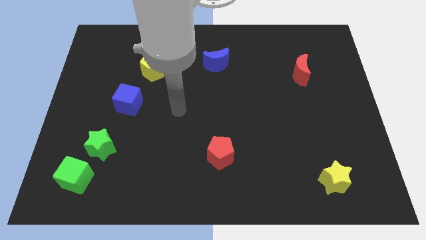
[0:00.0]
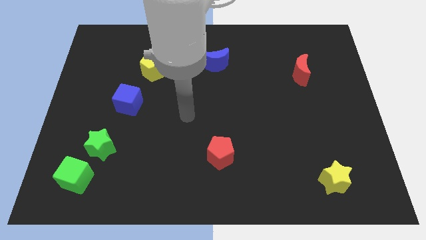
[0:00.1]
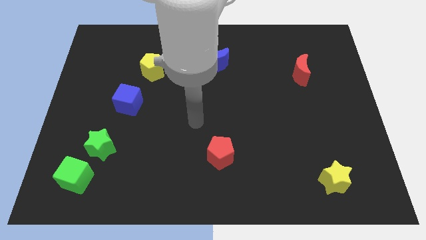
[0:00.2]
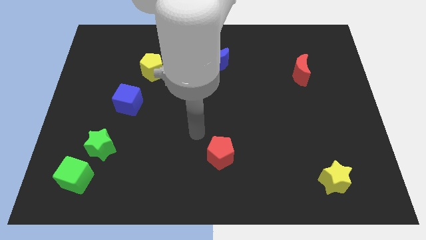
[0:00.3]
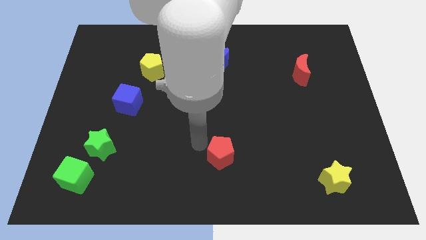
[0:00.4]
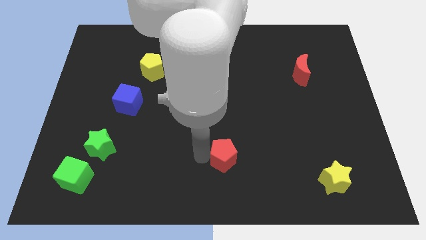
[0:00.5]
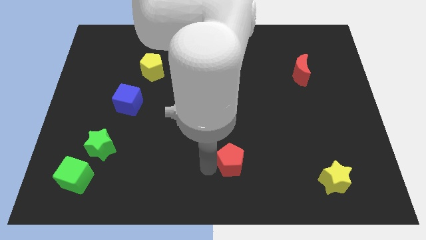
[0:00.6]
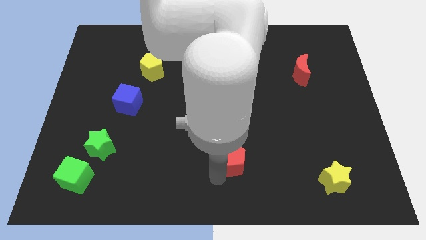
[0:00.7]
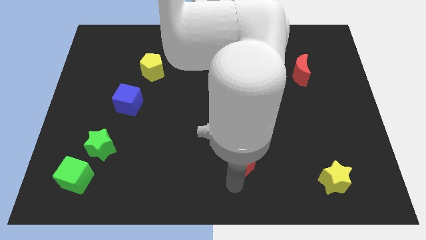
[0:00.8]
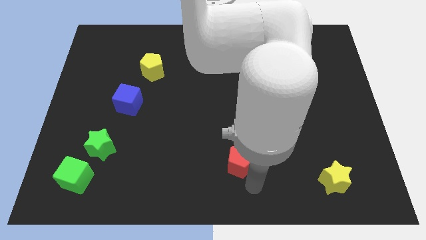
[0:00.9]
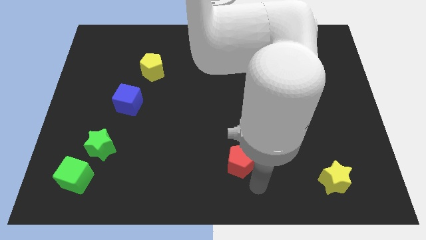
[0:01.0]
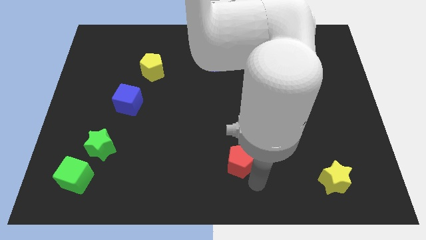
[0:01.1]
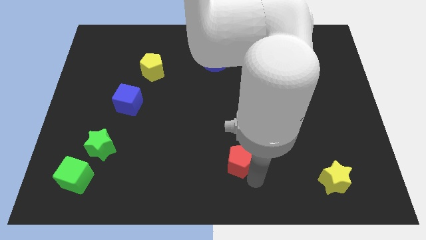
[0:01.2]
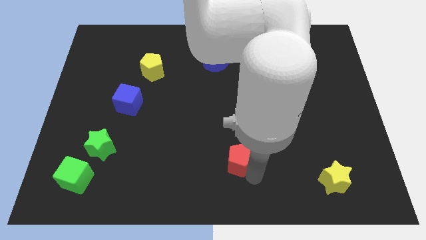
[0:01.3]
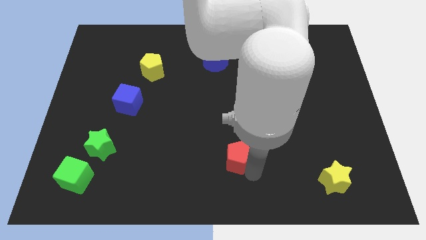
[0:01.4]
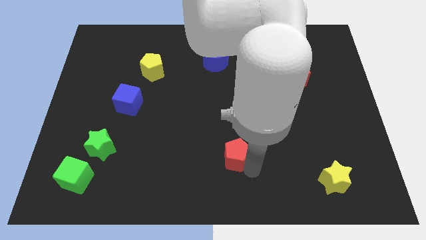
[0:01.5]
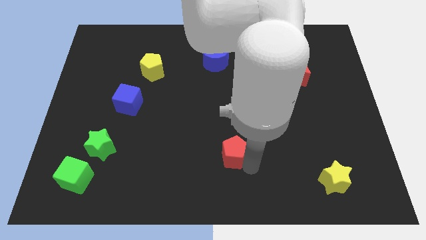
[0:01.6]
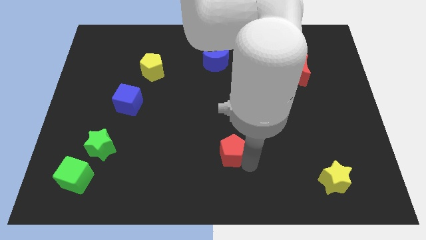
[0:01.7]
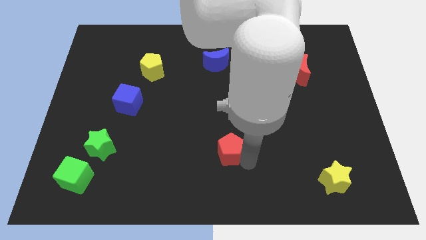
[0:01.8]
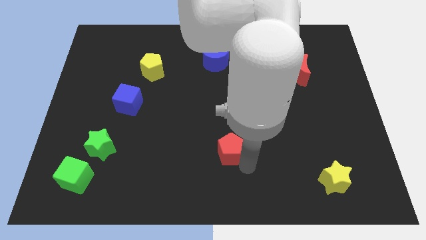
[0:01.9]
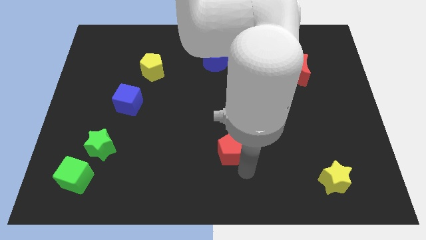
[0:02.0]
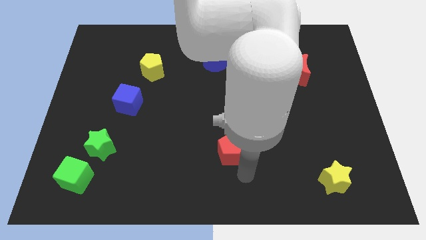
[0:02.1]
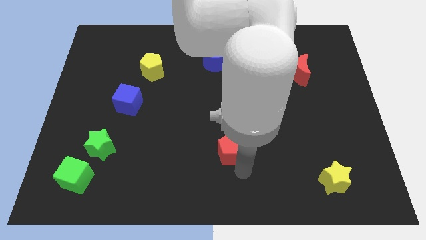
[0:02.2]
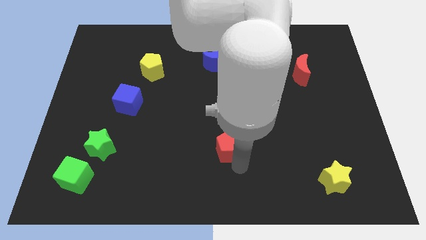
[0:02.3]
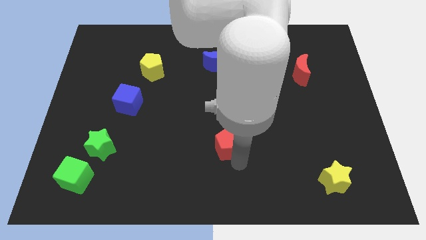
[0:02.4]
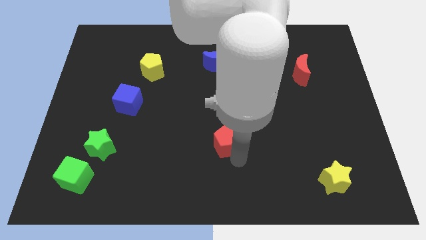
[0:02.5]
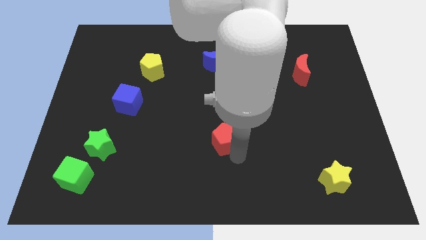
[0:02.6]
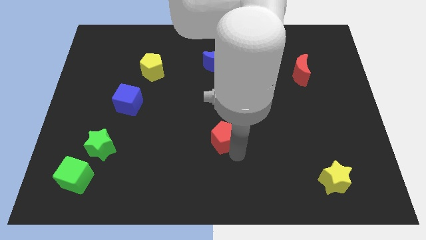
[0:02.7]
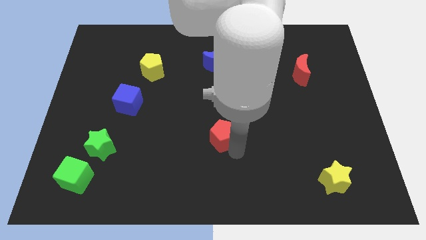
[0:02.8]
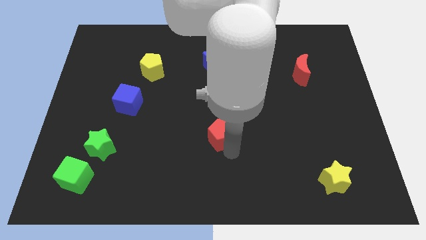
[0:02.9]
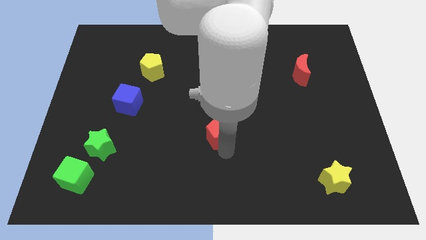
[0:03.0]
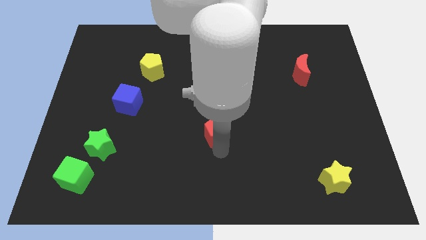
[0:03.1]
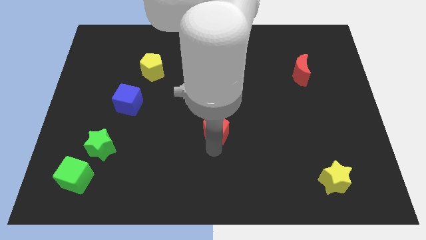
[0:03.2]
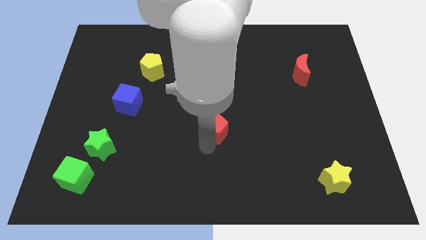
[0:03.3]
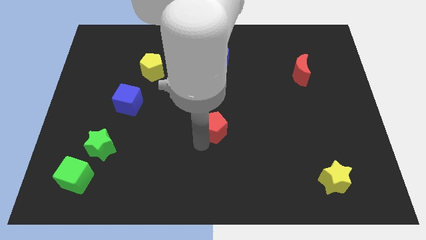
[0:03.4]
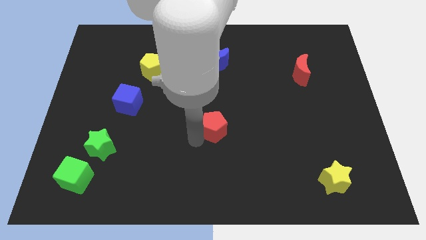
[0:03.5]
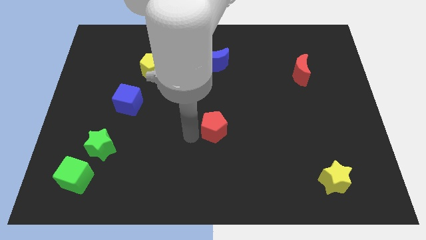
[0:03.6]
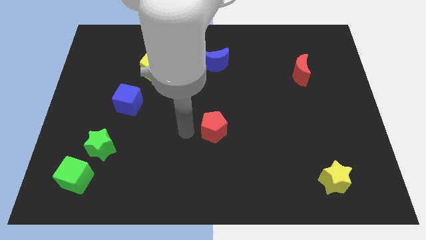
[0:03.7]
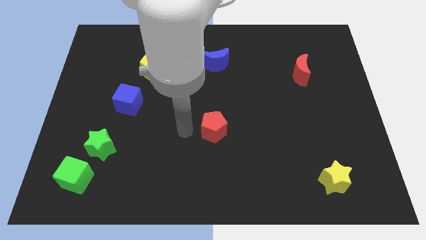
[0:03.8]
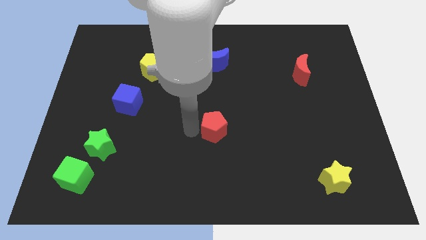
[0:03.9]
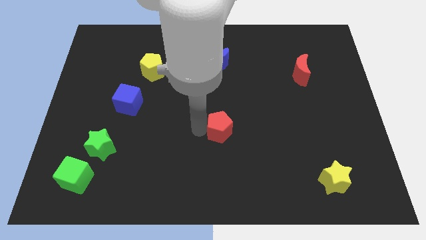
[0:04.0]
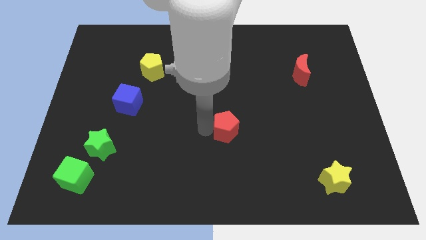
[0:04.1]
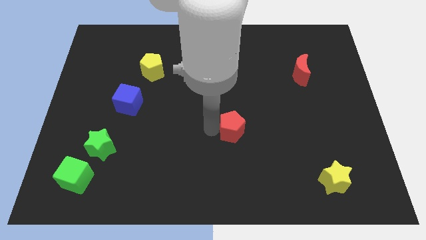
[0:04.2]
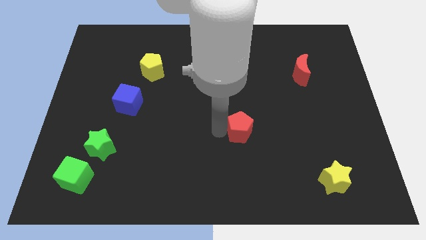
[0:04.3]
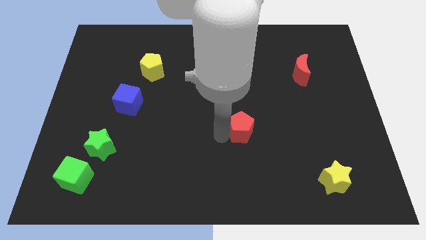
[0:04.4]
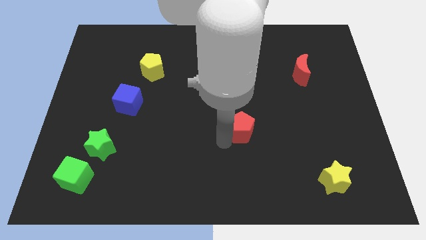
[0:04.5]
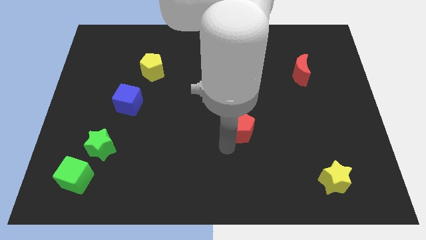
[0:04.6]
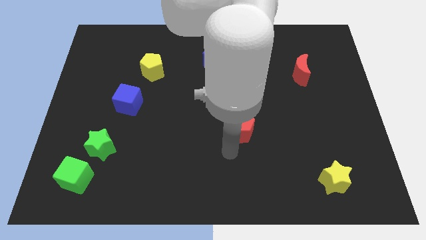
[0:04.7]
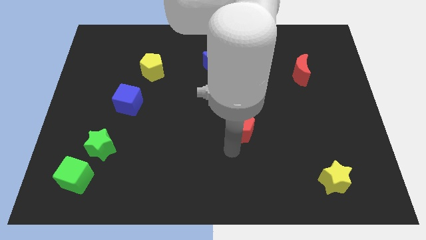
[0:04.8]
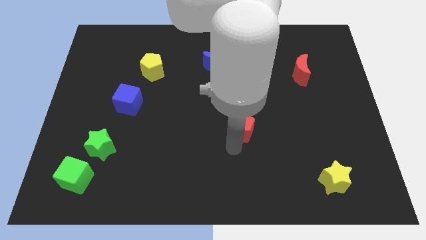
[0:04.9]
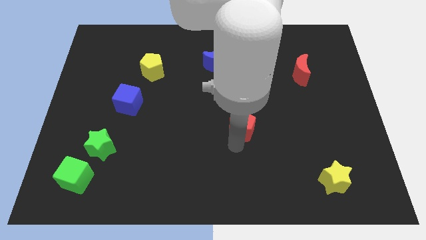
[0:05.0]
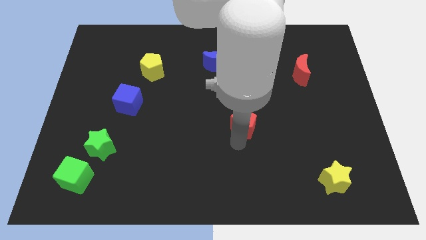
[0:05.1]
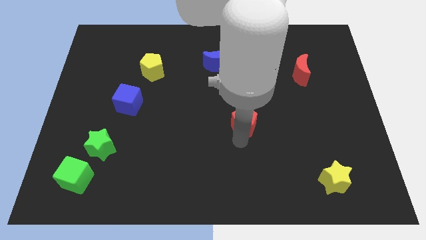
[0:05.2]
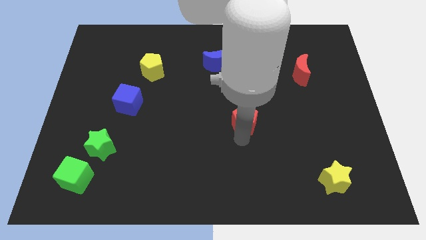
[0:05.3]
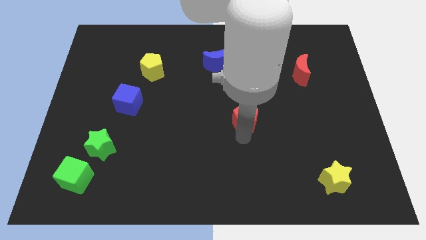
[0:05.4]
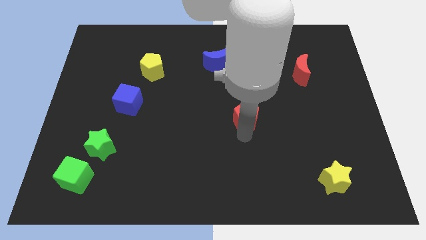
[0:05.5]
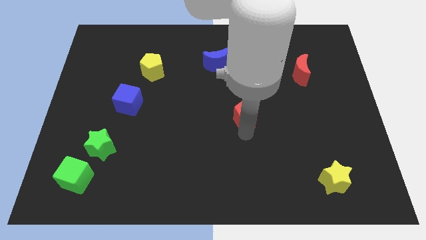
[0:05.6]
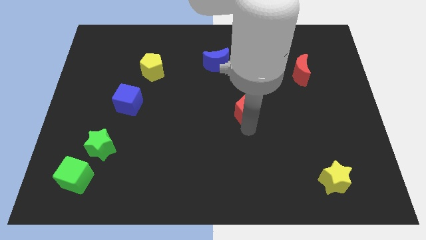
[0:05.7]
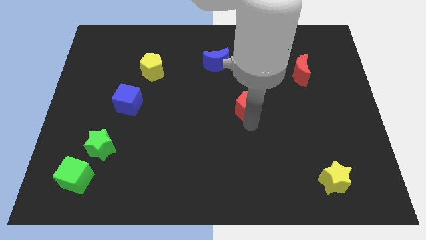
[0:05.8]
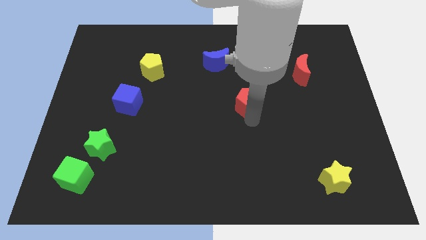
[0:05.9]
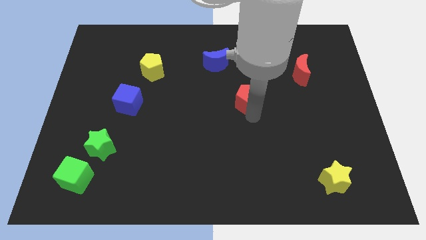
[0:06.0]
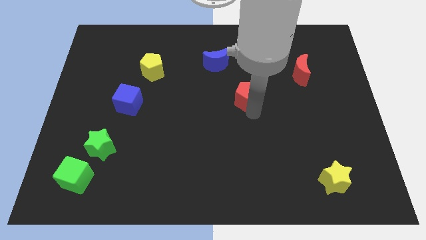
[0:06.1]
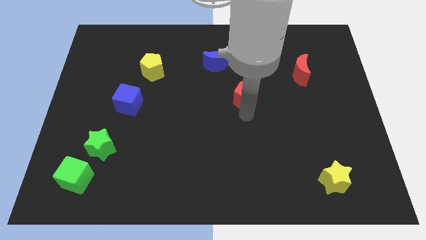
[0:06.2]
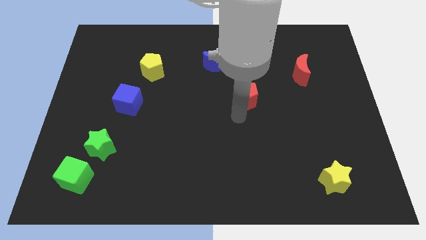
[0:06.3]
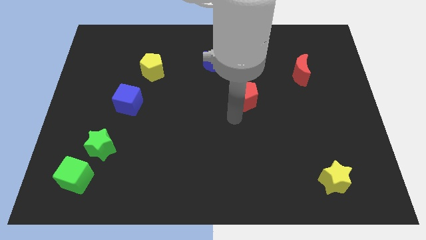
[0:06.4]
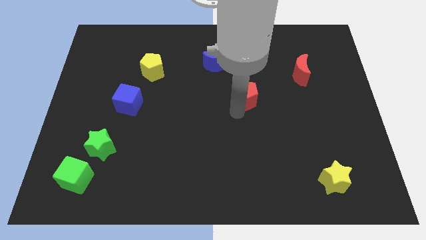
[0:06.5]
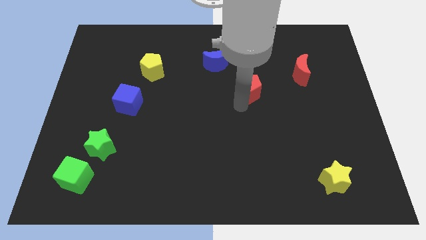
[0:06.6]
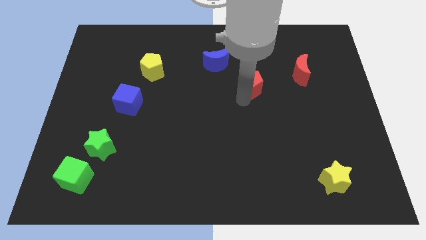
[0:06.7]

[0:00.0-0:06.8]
move the red pentagon just left of the red moon

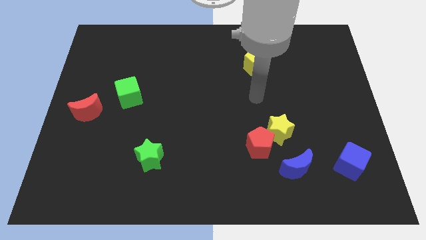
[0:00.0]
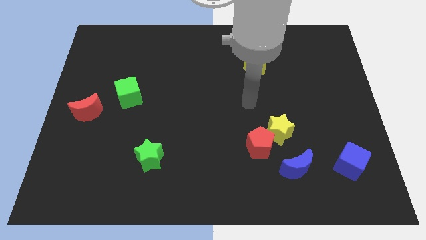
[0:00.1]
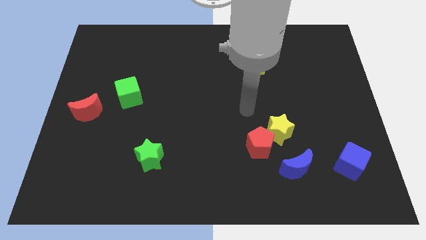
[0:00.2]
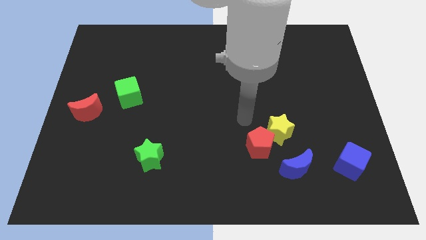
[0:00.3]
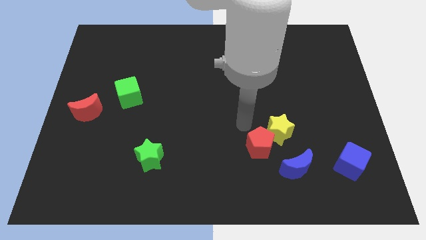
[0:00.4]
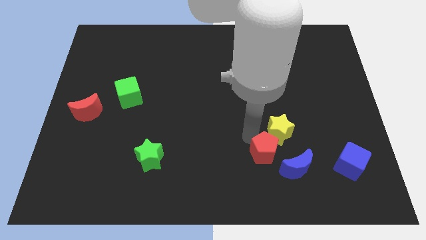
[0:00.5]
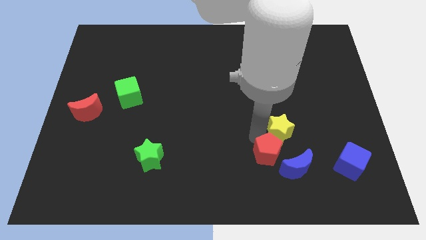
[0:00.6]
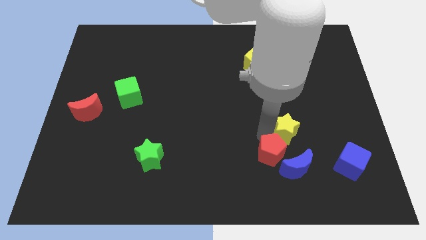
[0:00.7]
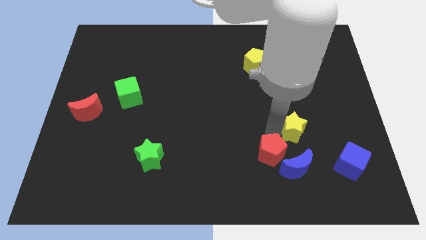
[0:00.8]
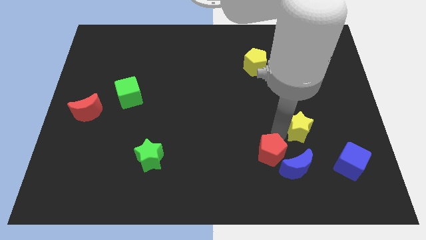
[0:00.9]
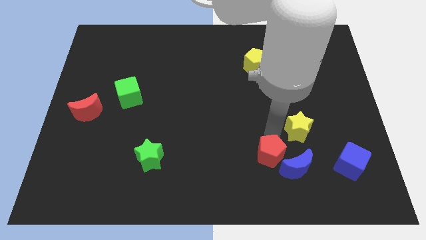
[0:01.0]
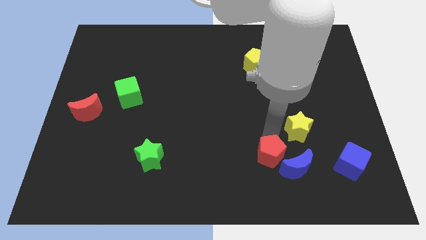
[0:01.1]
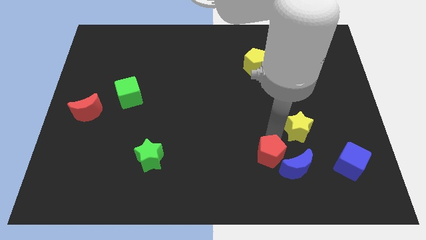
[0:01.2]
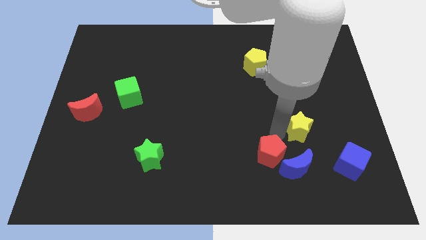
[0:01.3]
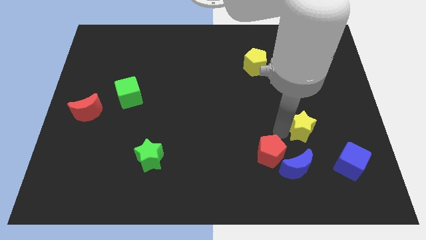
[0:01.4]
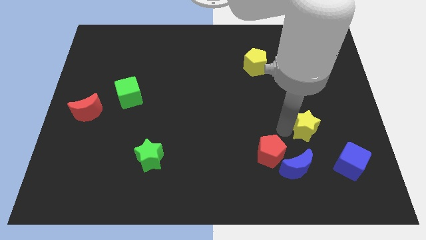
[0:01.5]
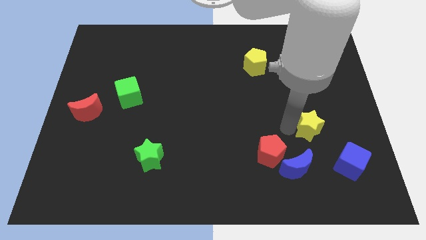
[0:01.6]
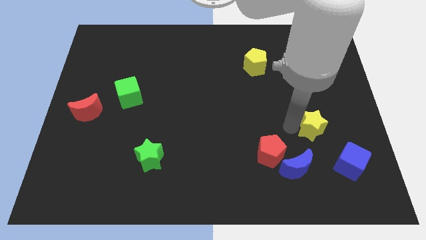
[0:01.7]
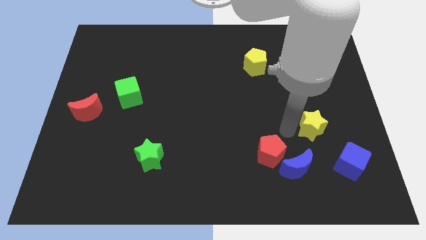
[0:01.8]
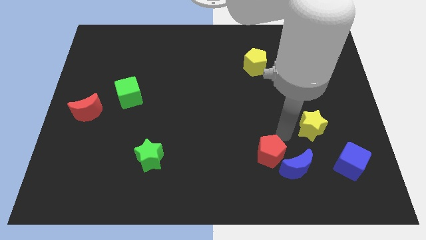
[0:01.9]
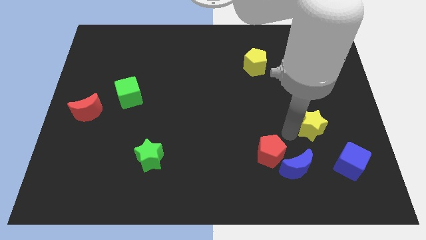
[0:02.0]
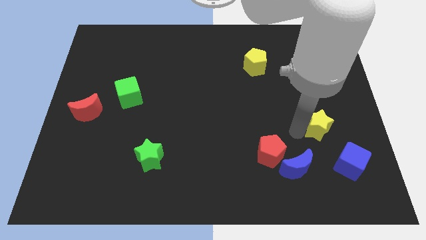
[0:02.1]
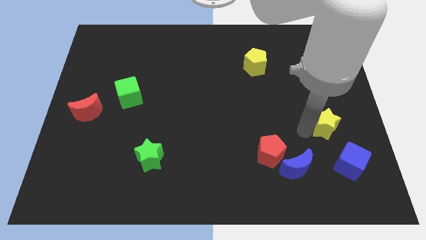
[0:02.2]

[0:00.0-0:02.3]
slide the yellow star to the top side of the blue cube
